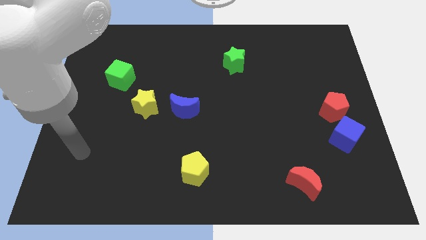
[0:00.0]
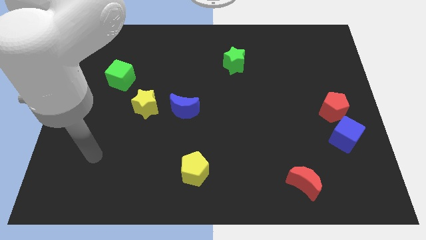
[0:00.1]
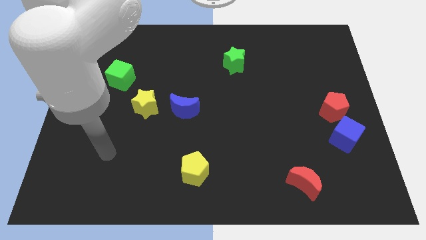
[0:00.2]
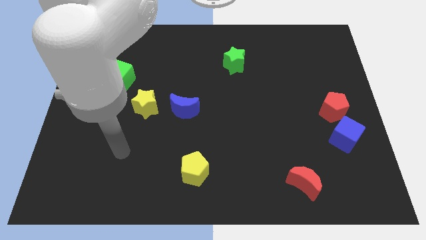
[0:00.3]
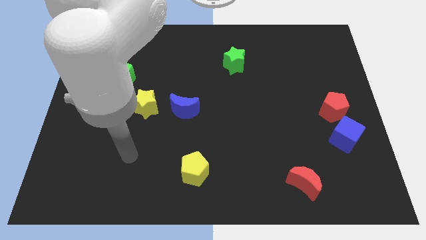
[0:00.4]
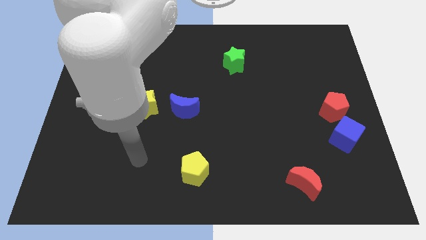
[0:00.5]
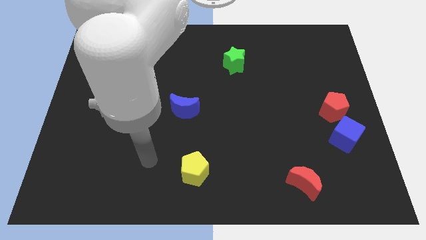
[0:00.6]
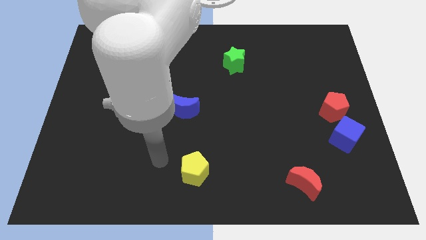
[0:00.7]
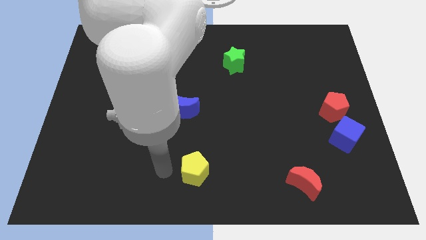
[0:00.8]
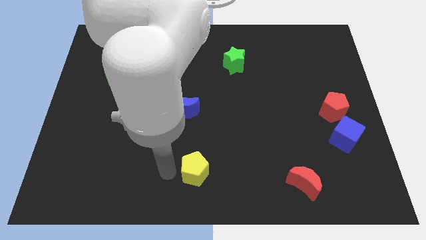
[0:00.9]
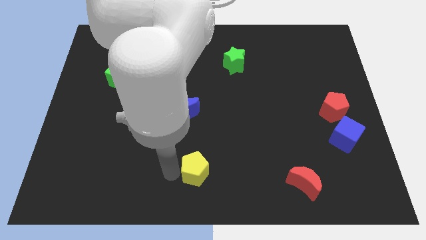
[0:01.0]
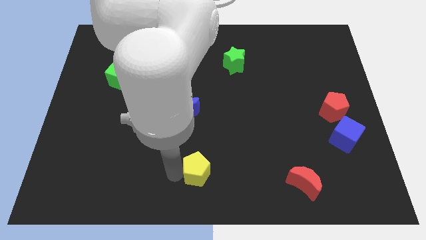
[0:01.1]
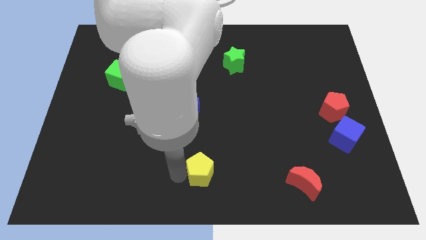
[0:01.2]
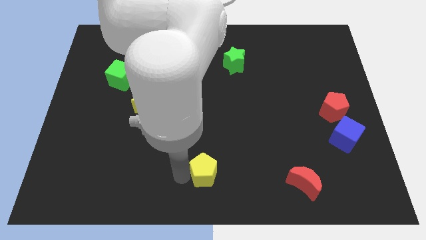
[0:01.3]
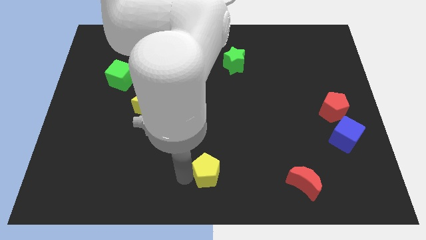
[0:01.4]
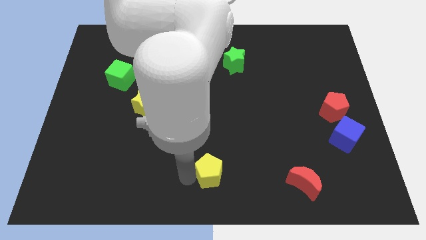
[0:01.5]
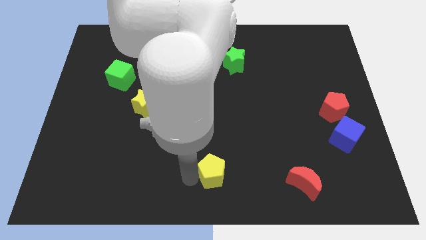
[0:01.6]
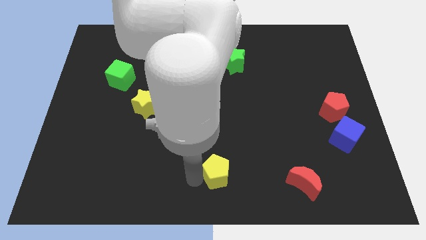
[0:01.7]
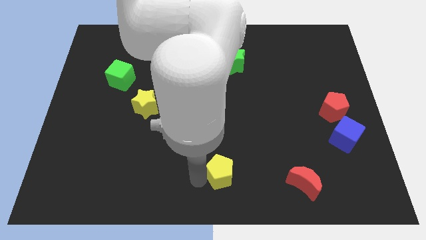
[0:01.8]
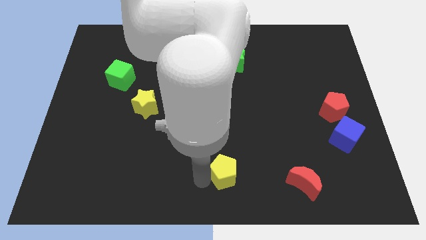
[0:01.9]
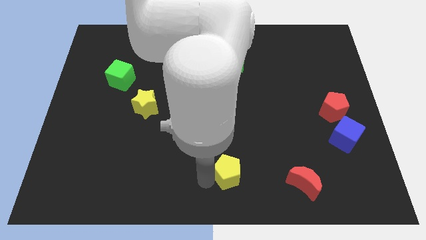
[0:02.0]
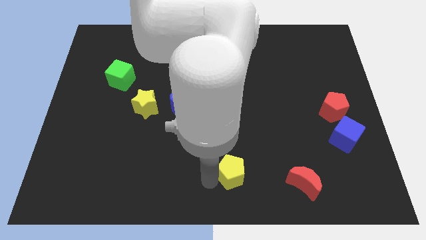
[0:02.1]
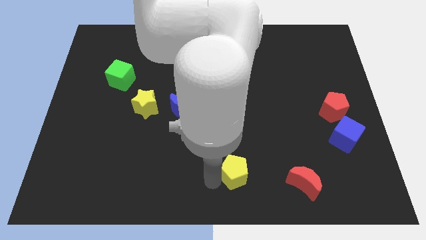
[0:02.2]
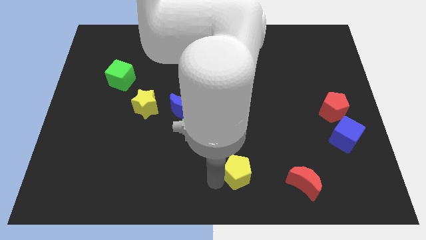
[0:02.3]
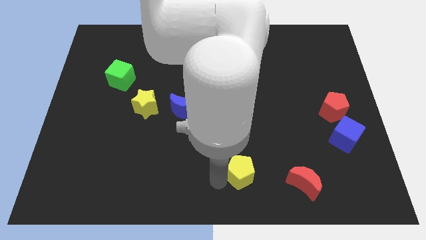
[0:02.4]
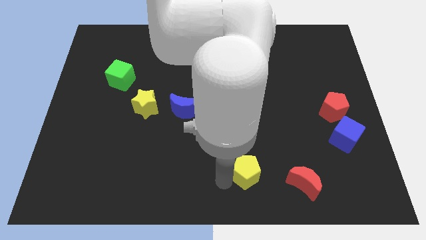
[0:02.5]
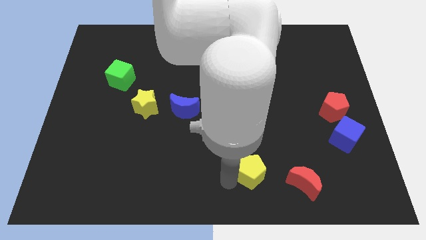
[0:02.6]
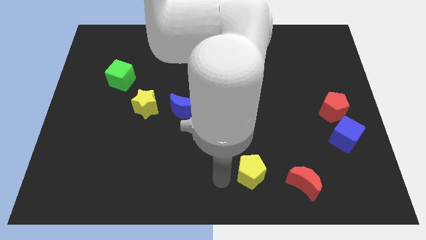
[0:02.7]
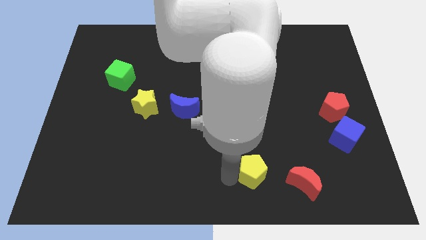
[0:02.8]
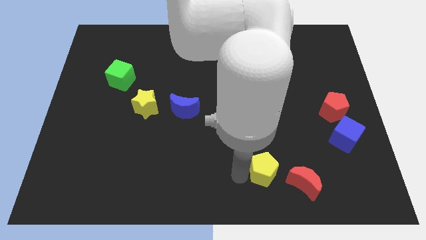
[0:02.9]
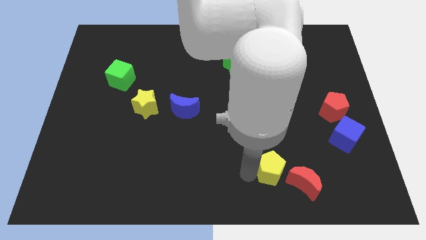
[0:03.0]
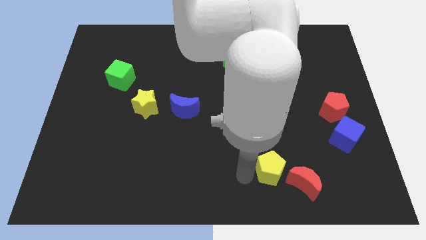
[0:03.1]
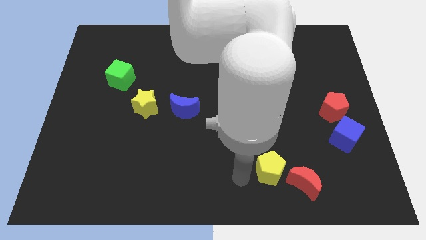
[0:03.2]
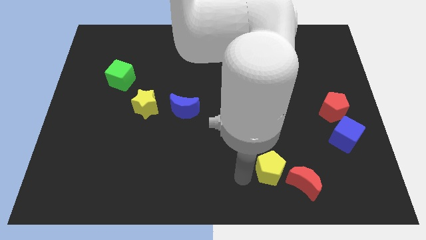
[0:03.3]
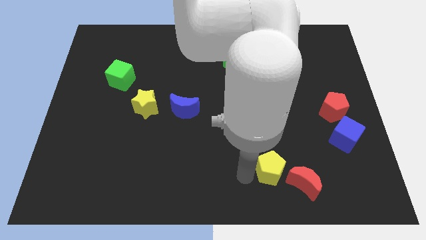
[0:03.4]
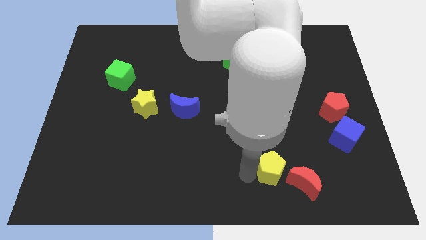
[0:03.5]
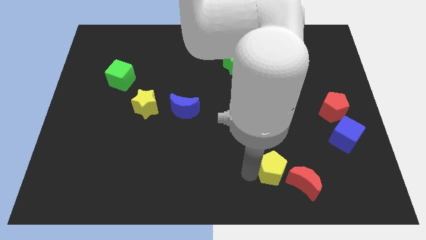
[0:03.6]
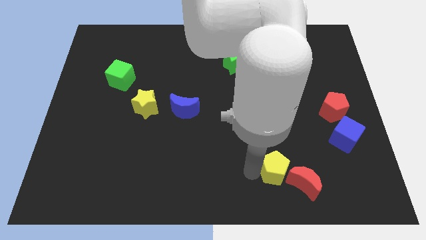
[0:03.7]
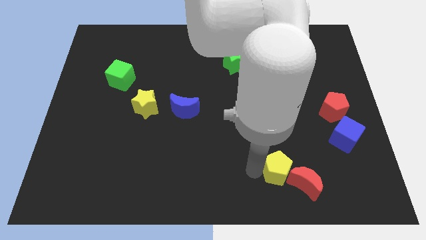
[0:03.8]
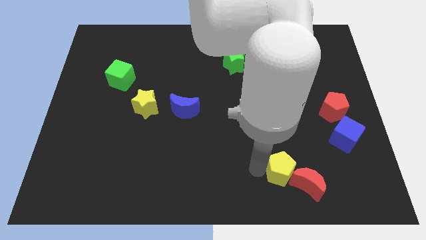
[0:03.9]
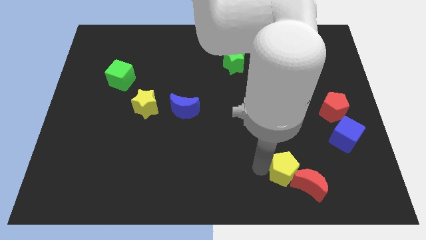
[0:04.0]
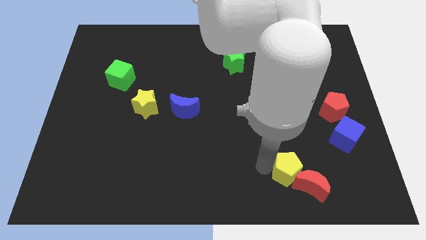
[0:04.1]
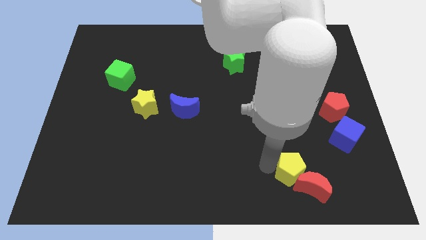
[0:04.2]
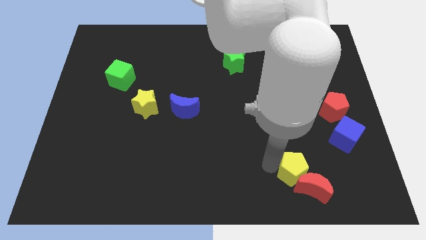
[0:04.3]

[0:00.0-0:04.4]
push the yellow pentagon to the right

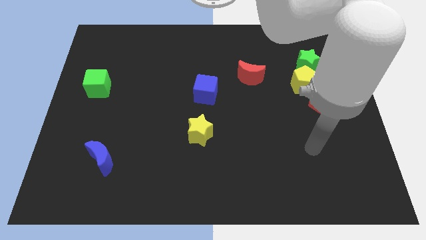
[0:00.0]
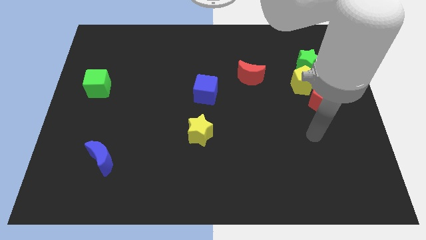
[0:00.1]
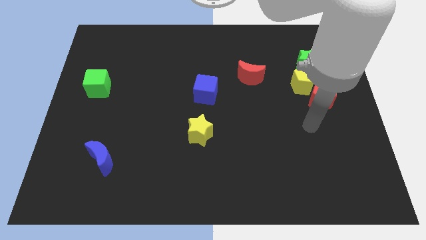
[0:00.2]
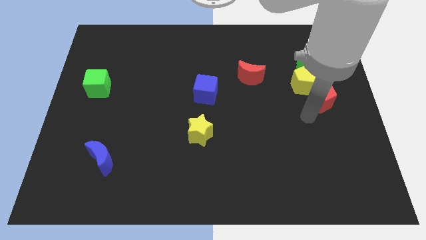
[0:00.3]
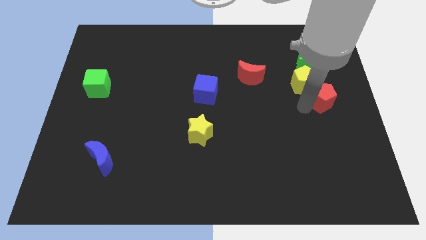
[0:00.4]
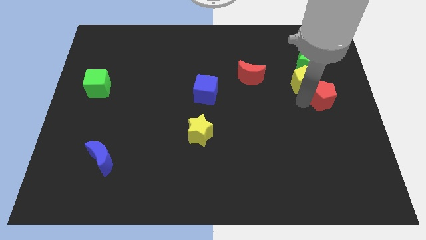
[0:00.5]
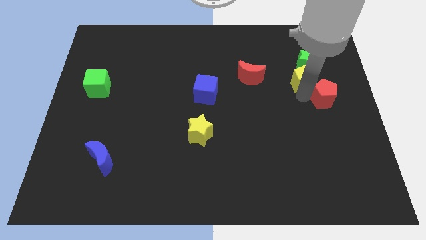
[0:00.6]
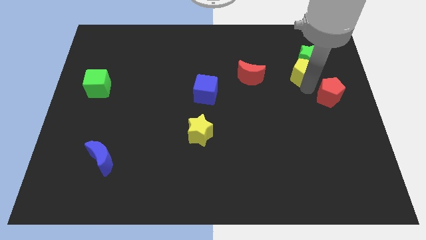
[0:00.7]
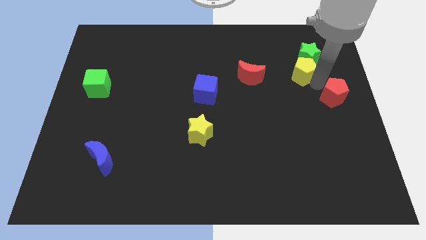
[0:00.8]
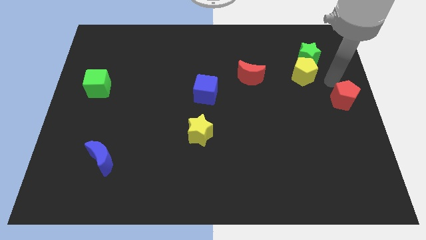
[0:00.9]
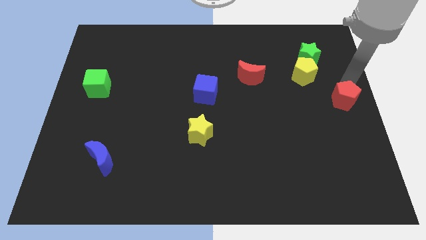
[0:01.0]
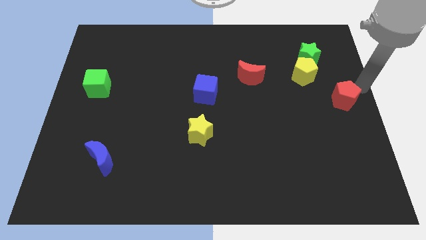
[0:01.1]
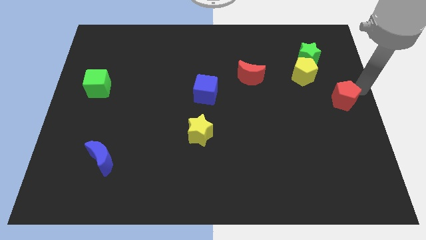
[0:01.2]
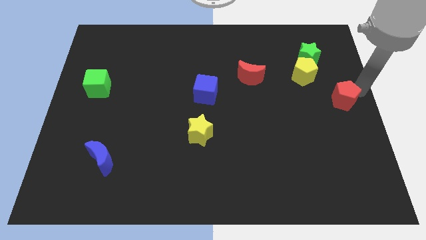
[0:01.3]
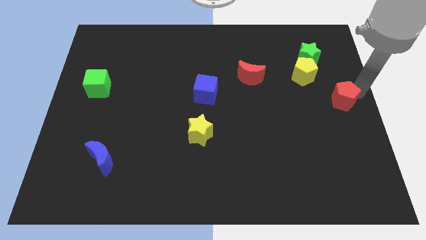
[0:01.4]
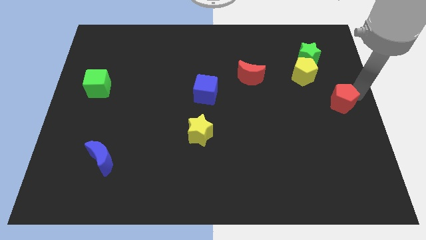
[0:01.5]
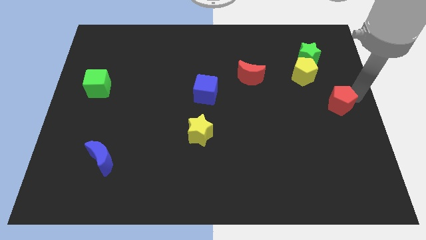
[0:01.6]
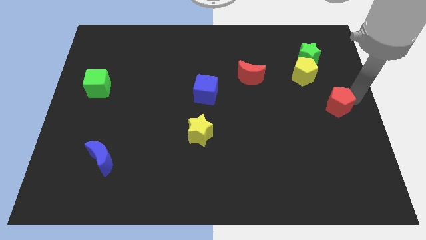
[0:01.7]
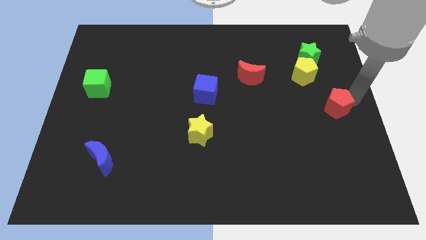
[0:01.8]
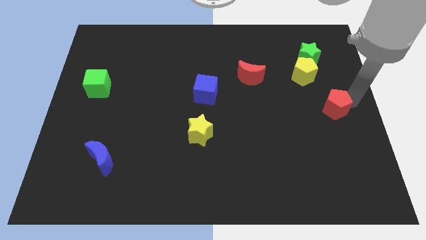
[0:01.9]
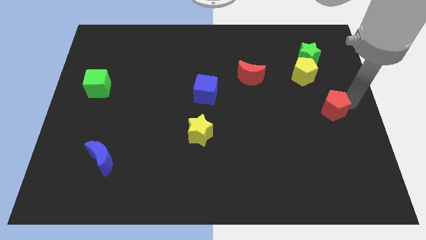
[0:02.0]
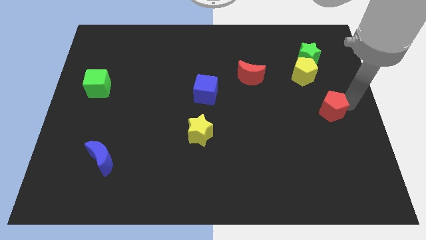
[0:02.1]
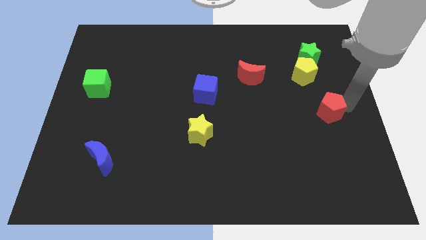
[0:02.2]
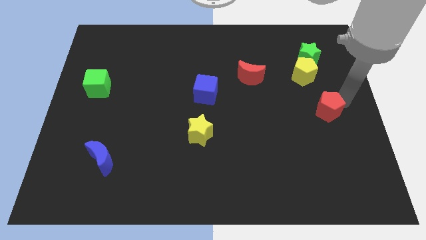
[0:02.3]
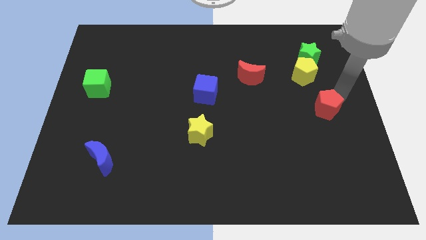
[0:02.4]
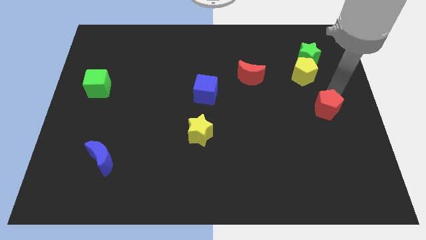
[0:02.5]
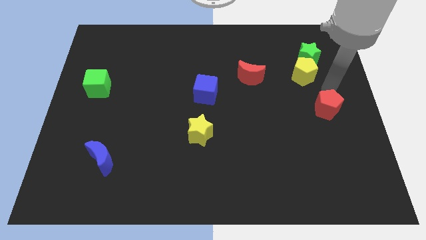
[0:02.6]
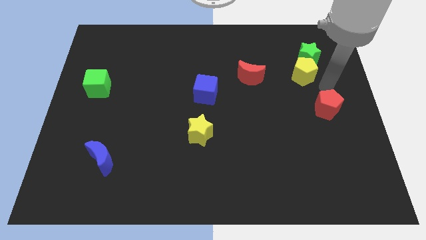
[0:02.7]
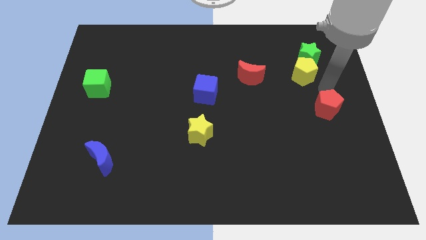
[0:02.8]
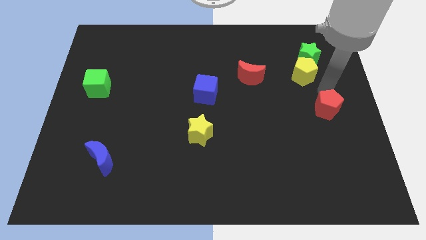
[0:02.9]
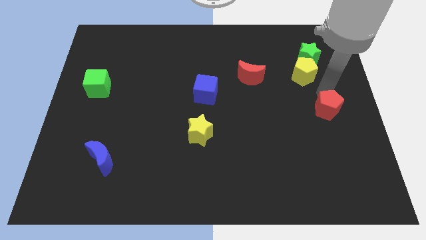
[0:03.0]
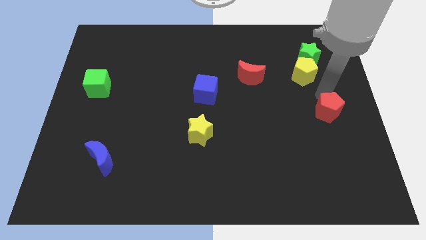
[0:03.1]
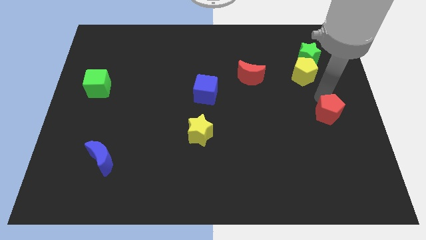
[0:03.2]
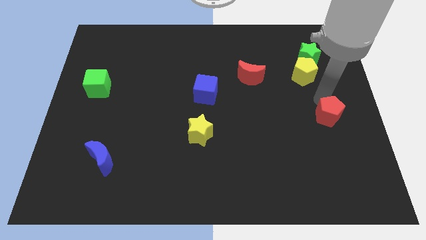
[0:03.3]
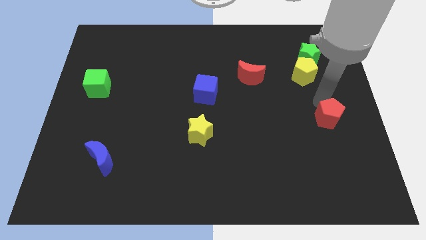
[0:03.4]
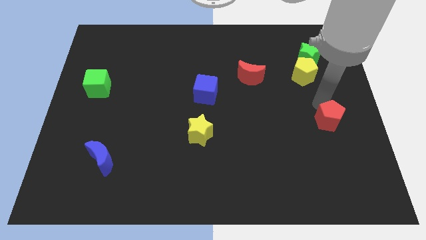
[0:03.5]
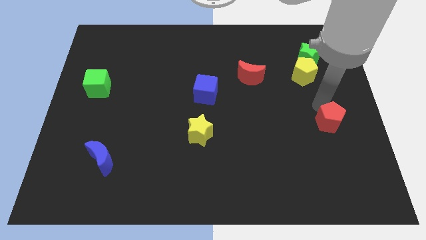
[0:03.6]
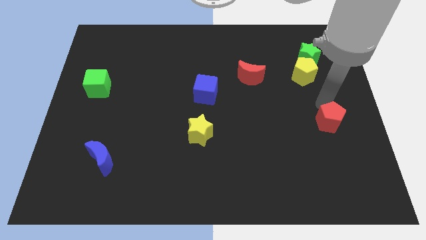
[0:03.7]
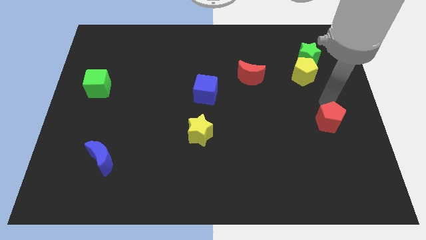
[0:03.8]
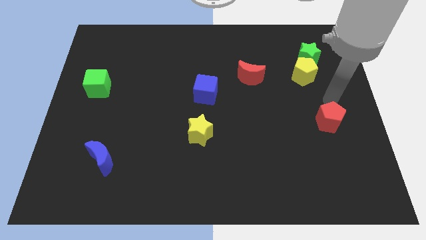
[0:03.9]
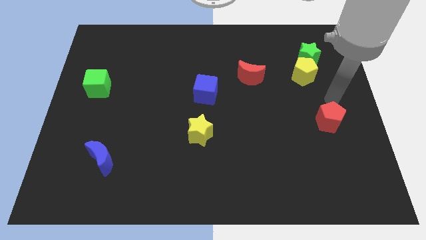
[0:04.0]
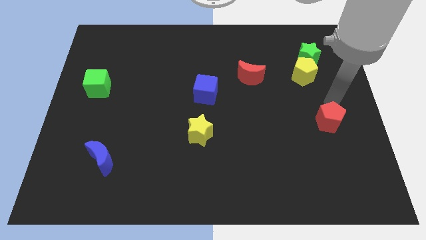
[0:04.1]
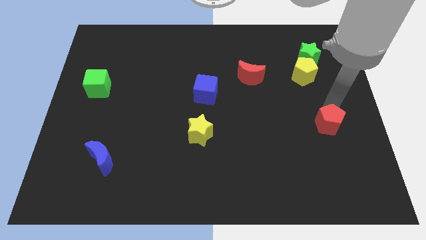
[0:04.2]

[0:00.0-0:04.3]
slightly move the red pentagon downwards
